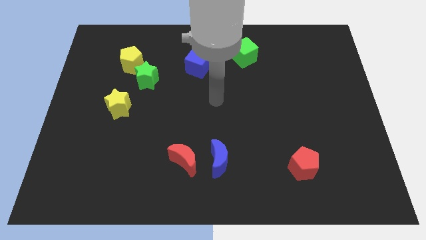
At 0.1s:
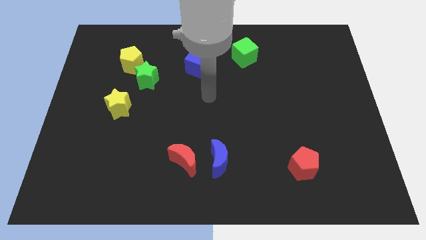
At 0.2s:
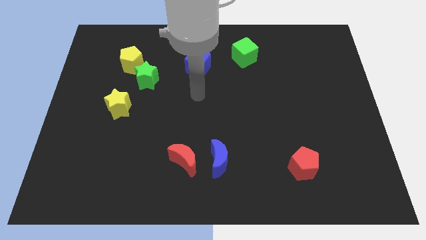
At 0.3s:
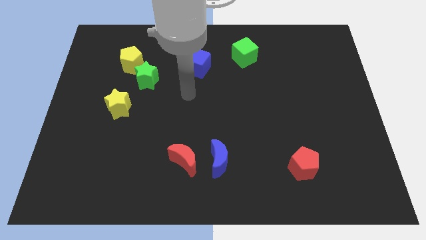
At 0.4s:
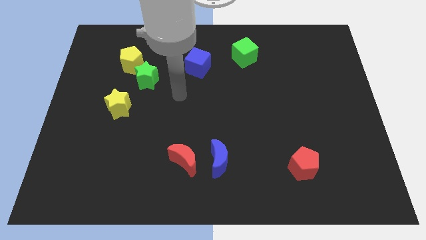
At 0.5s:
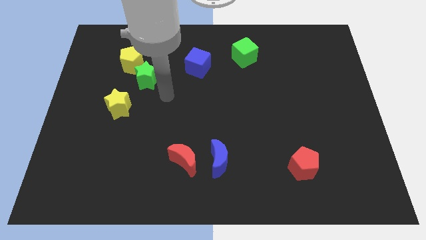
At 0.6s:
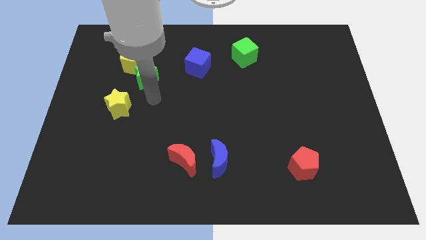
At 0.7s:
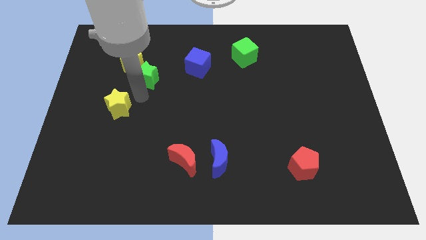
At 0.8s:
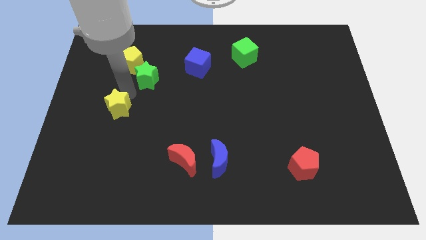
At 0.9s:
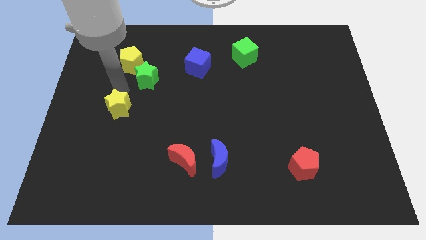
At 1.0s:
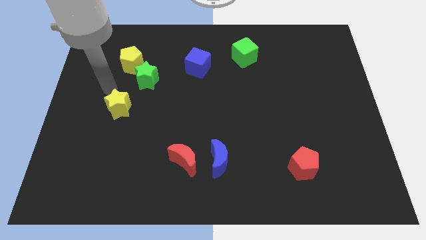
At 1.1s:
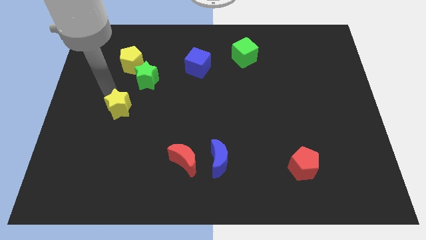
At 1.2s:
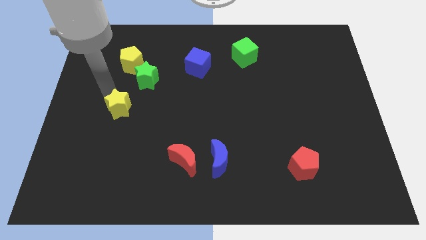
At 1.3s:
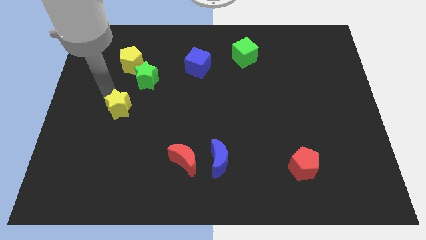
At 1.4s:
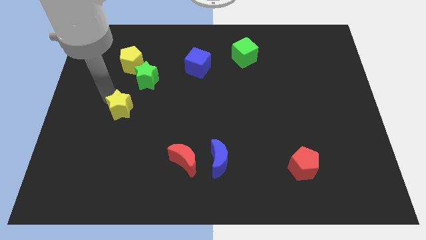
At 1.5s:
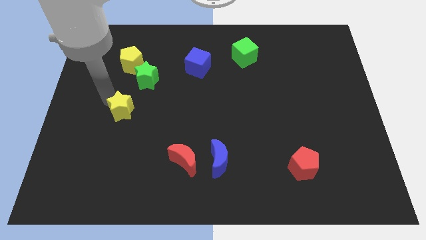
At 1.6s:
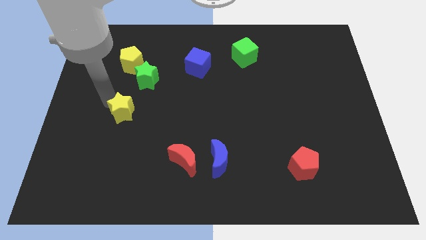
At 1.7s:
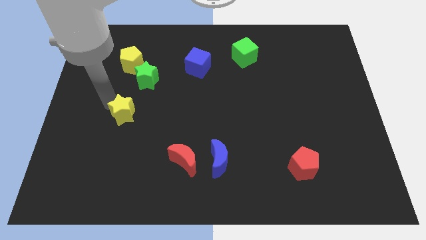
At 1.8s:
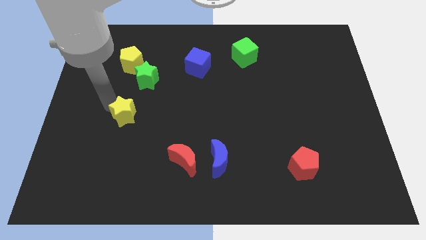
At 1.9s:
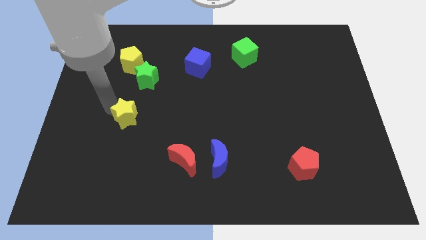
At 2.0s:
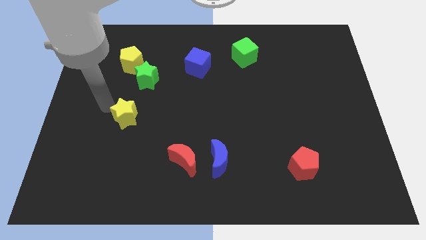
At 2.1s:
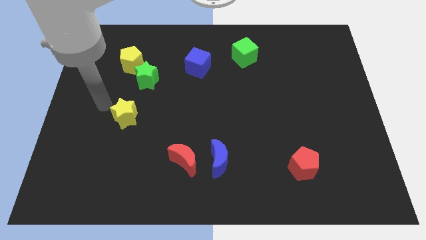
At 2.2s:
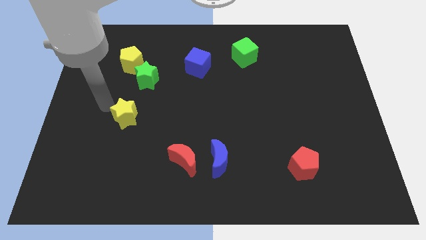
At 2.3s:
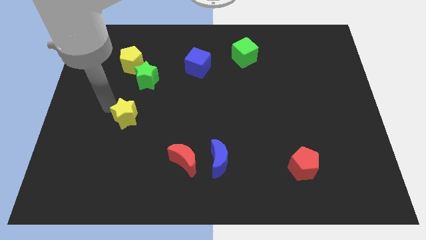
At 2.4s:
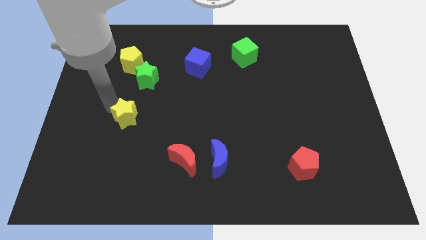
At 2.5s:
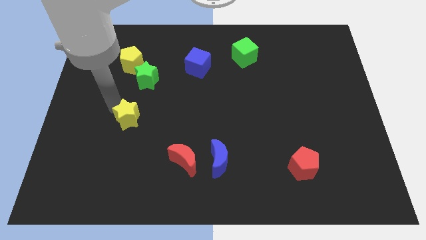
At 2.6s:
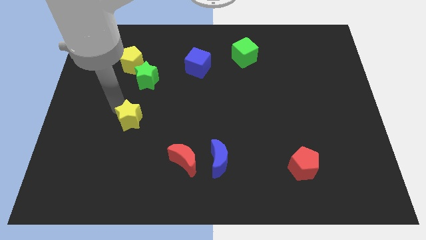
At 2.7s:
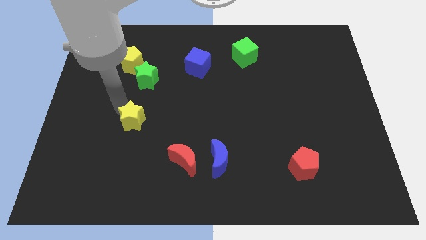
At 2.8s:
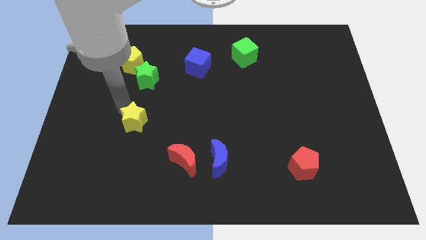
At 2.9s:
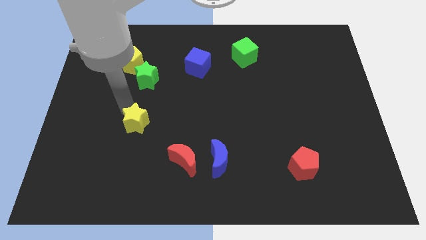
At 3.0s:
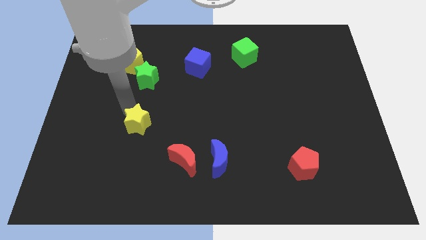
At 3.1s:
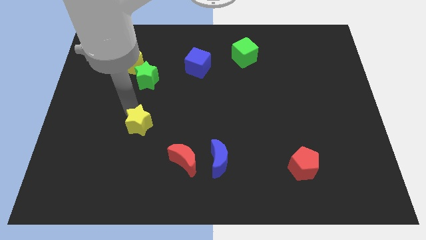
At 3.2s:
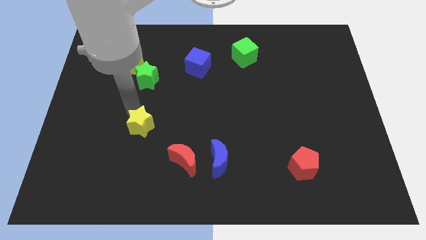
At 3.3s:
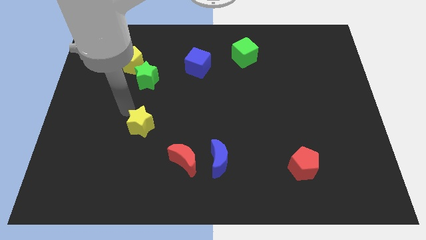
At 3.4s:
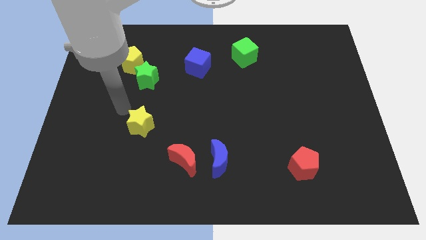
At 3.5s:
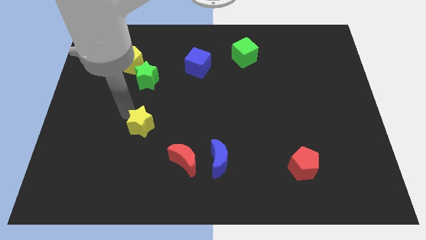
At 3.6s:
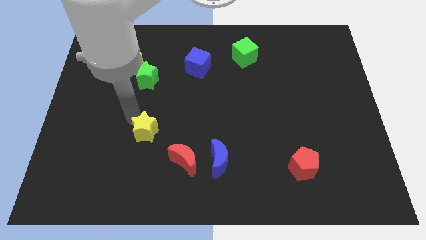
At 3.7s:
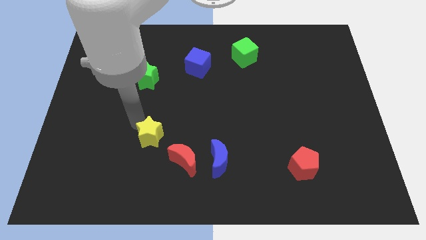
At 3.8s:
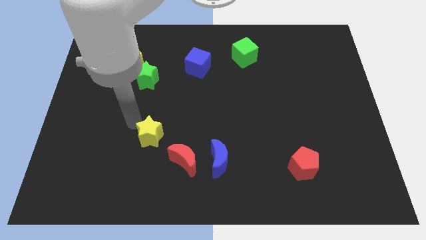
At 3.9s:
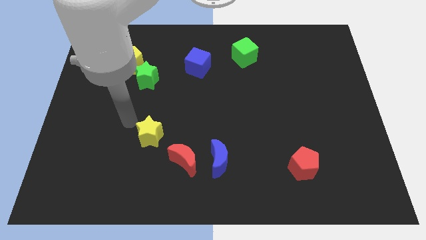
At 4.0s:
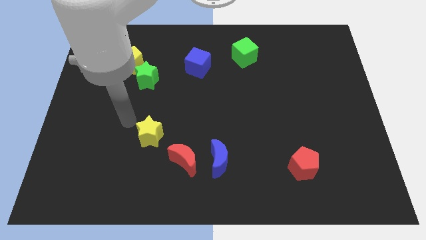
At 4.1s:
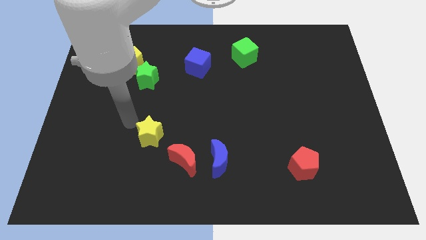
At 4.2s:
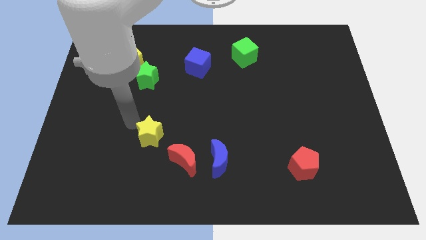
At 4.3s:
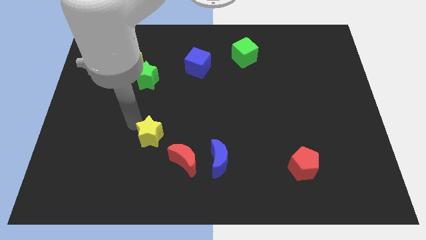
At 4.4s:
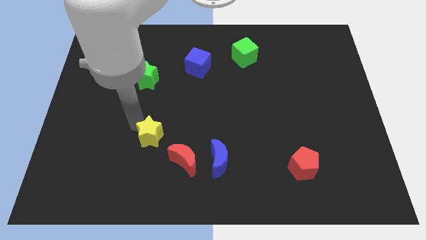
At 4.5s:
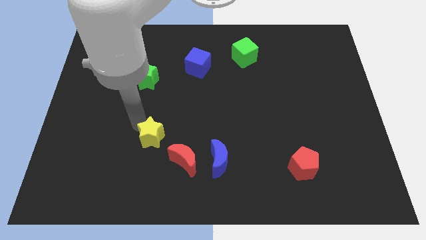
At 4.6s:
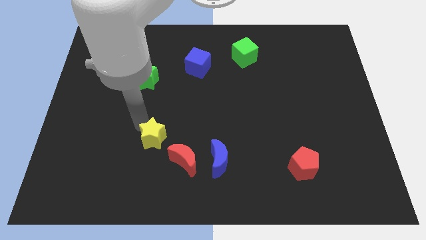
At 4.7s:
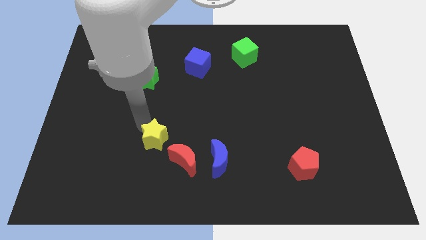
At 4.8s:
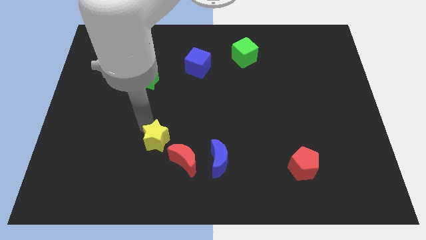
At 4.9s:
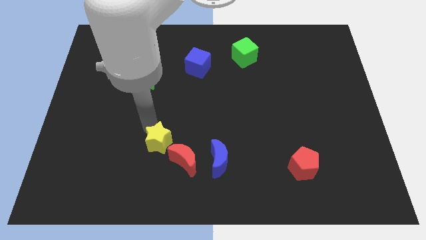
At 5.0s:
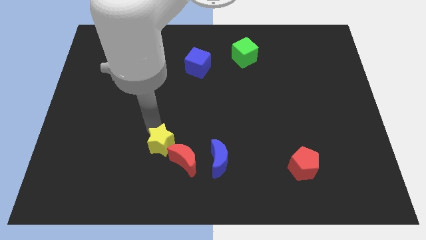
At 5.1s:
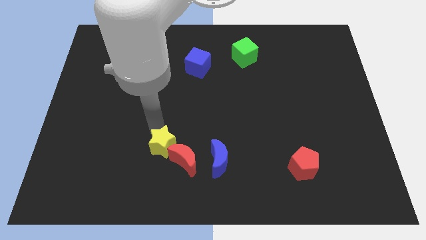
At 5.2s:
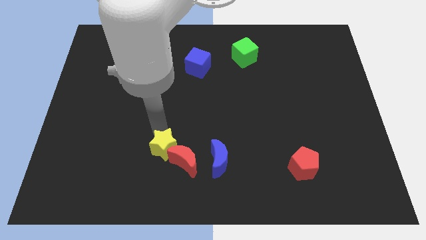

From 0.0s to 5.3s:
put the yellow star close to the red moon

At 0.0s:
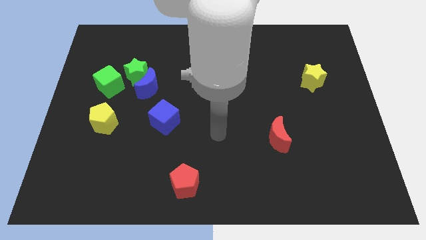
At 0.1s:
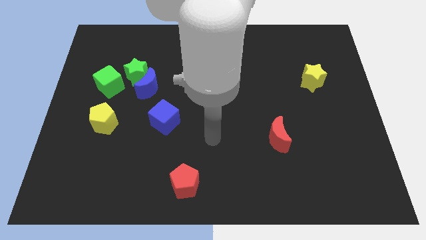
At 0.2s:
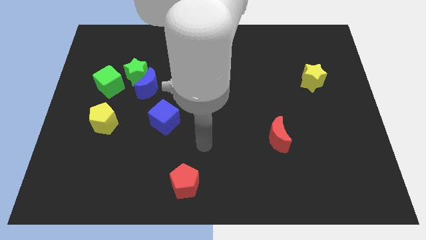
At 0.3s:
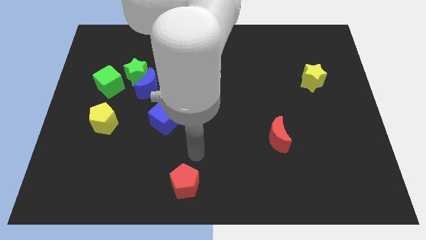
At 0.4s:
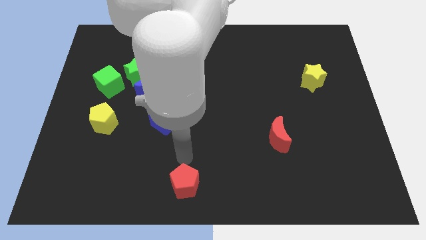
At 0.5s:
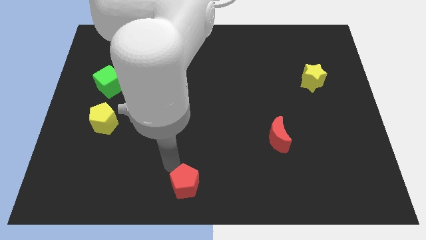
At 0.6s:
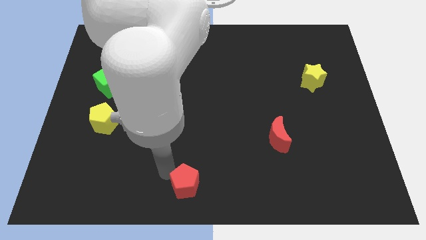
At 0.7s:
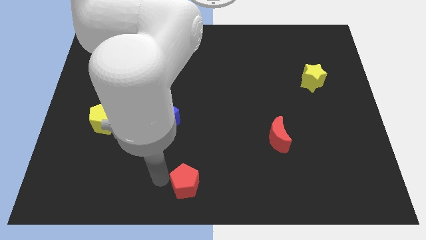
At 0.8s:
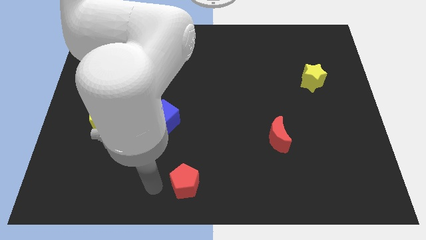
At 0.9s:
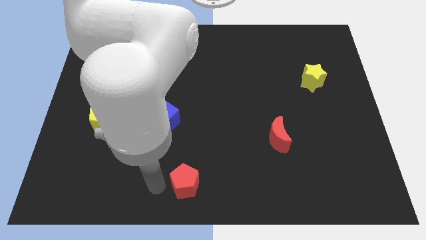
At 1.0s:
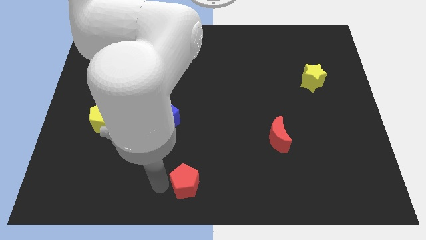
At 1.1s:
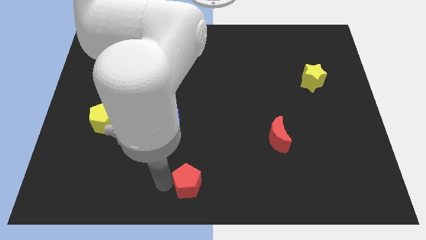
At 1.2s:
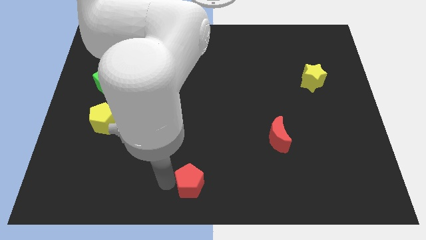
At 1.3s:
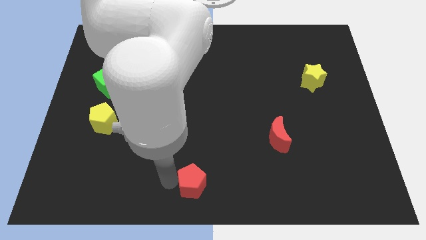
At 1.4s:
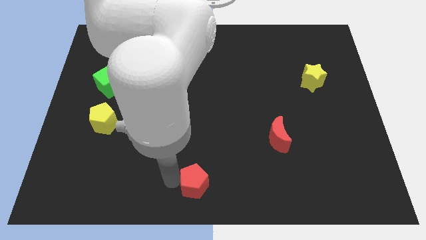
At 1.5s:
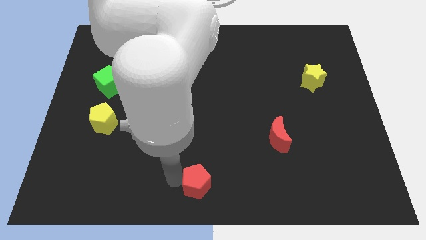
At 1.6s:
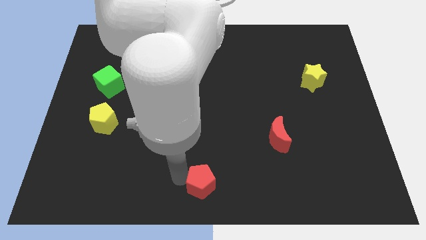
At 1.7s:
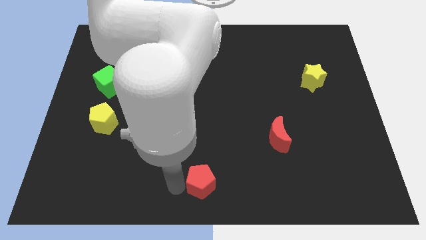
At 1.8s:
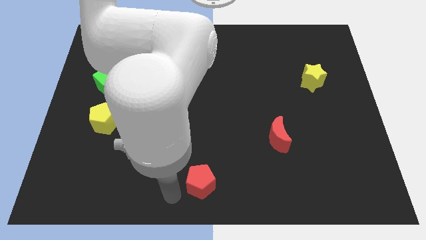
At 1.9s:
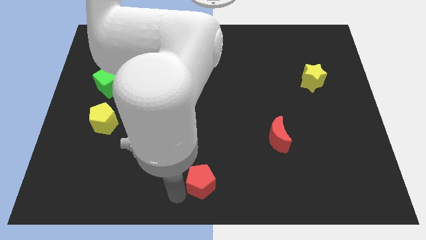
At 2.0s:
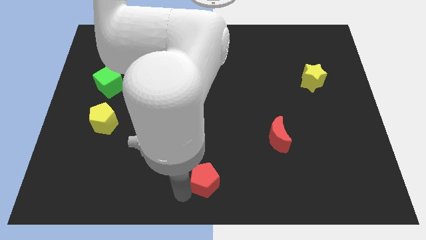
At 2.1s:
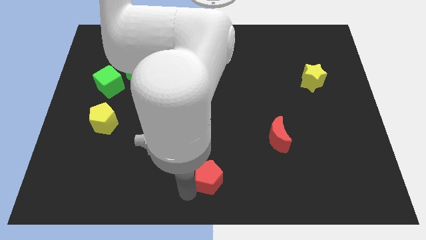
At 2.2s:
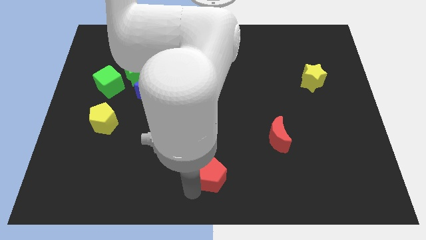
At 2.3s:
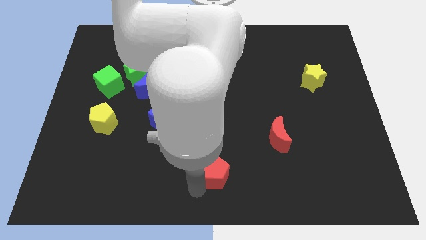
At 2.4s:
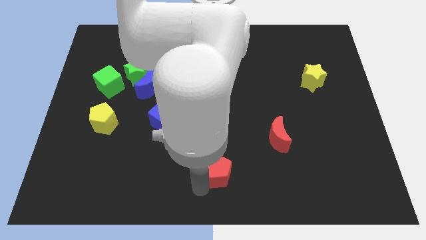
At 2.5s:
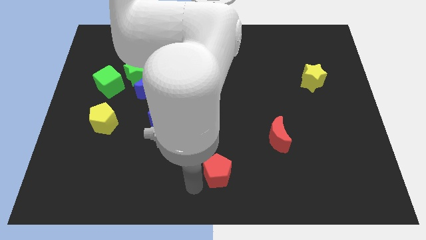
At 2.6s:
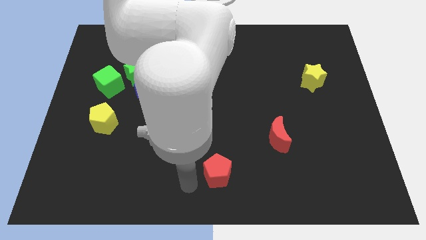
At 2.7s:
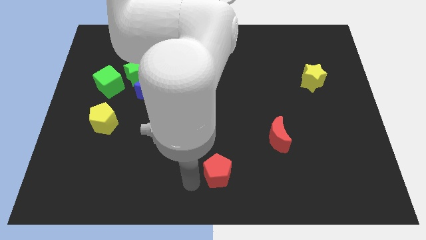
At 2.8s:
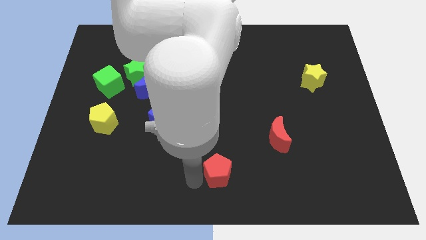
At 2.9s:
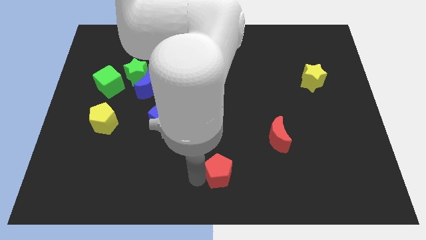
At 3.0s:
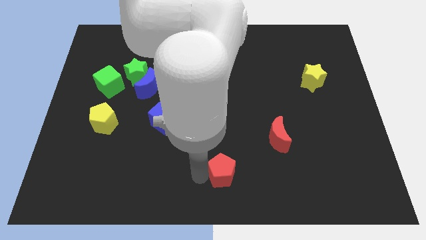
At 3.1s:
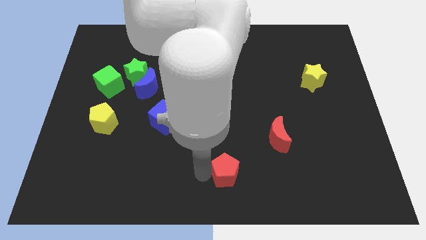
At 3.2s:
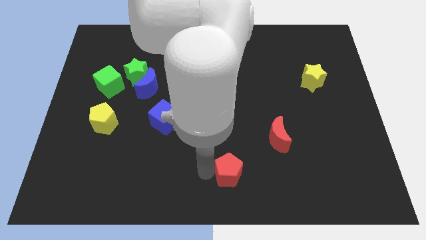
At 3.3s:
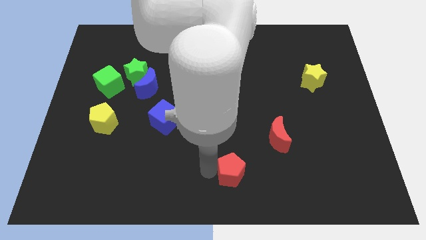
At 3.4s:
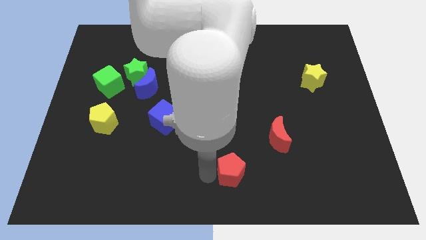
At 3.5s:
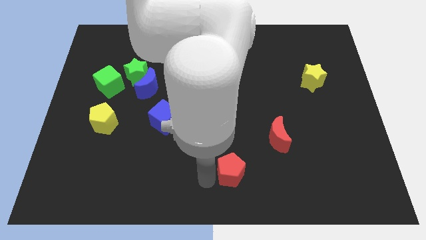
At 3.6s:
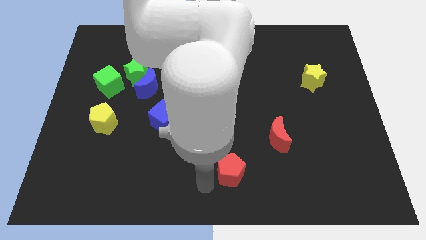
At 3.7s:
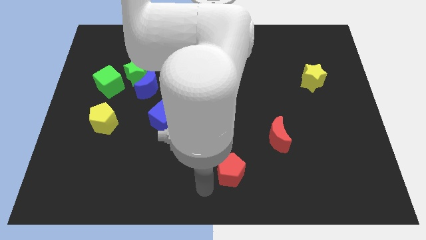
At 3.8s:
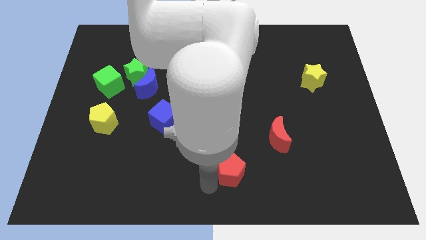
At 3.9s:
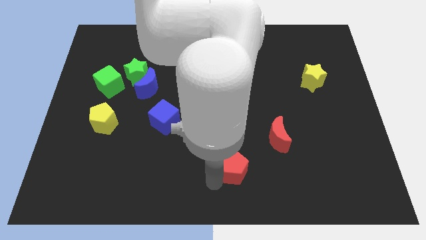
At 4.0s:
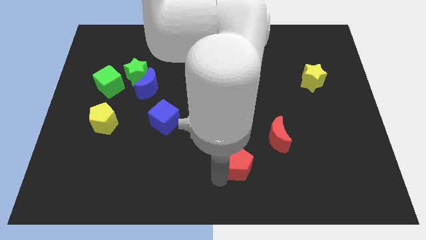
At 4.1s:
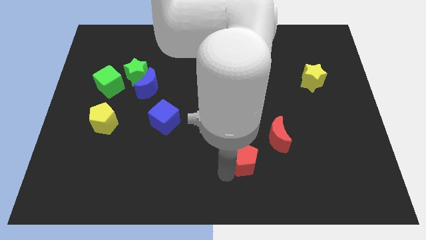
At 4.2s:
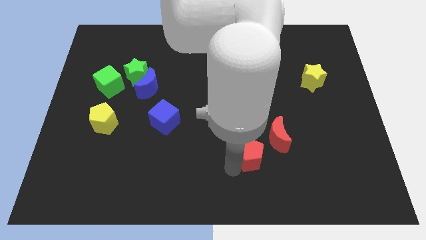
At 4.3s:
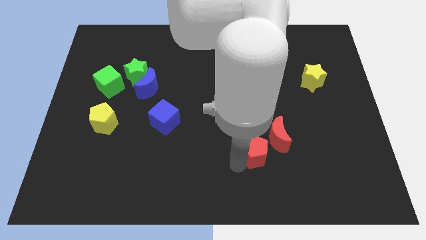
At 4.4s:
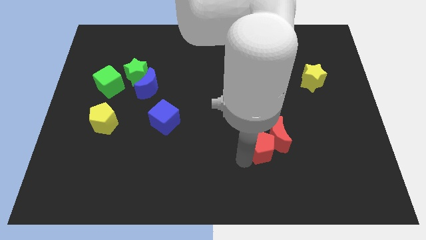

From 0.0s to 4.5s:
slide the red pentagon close to the red moon
